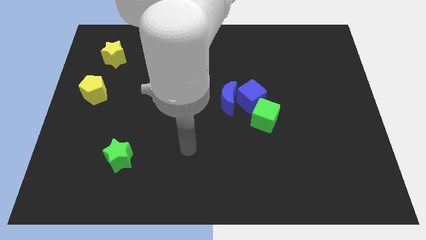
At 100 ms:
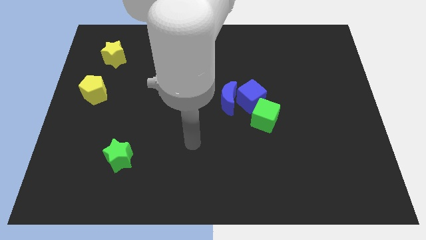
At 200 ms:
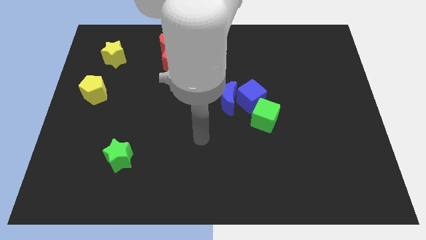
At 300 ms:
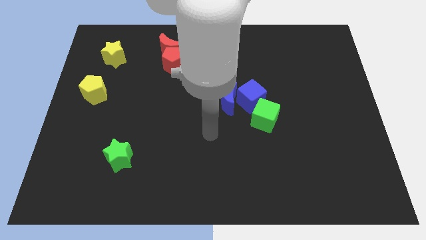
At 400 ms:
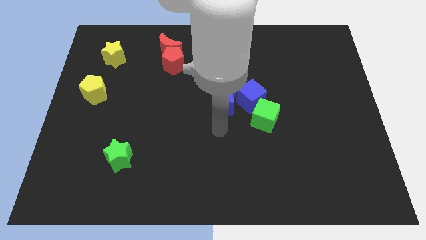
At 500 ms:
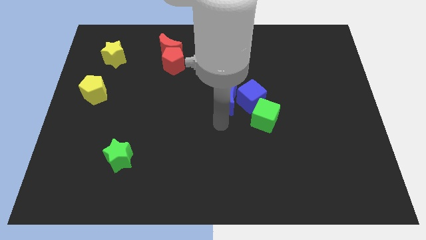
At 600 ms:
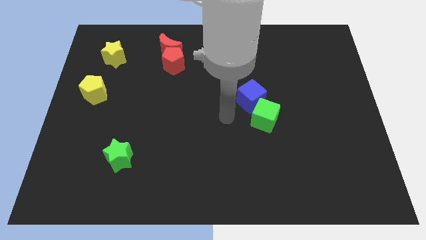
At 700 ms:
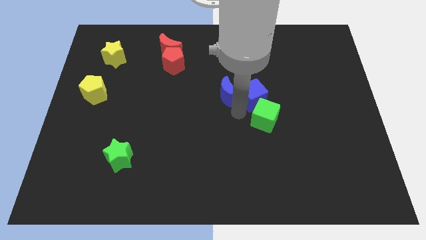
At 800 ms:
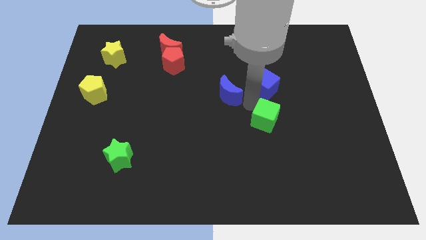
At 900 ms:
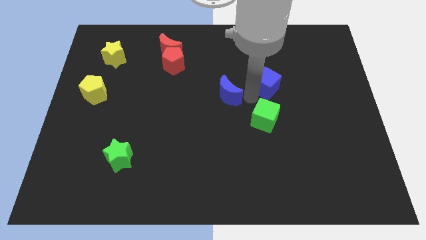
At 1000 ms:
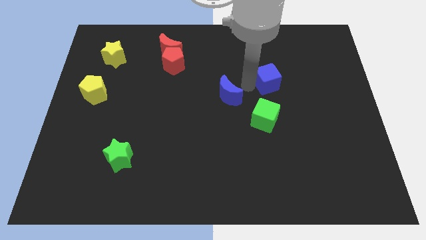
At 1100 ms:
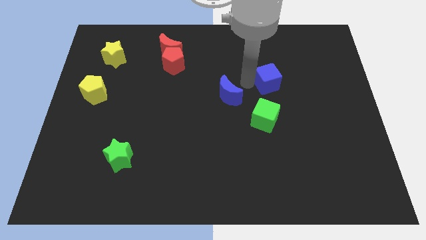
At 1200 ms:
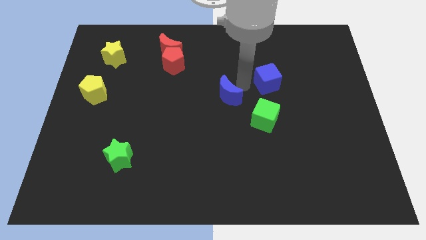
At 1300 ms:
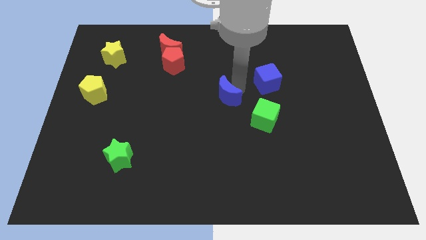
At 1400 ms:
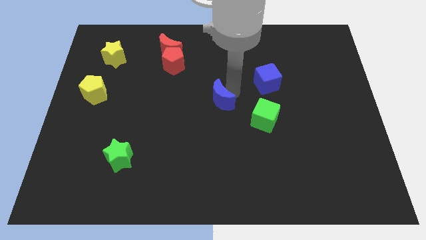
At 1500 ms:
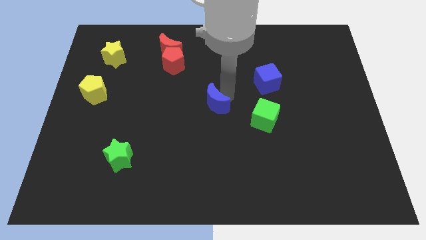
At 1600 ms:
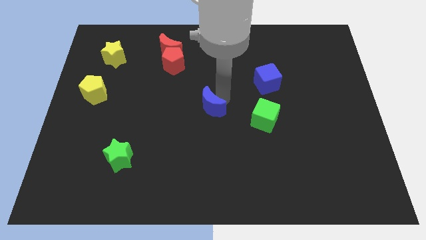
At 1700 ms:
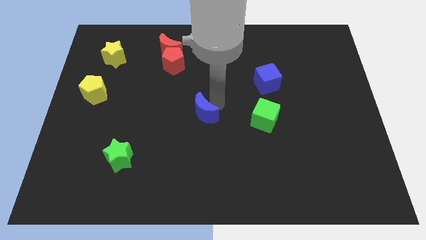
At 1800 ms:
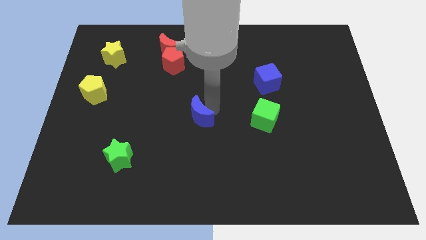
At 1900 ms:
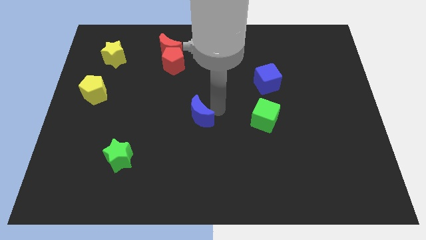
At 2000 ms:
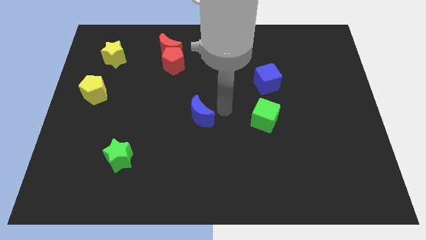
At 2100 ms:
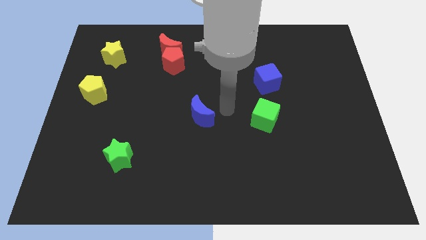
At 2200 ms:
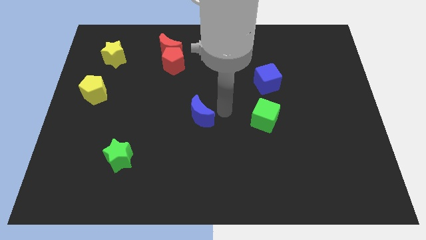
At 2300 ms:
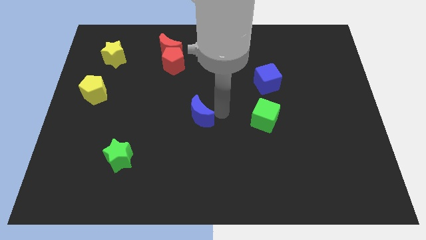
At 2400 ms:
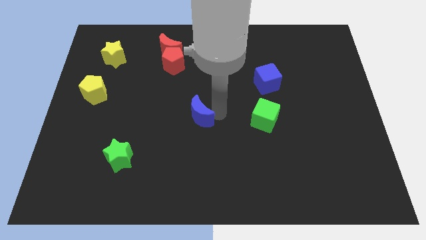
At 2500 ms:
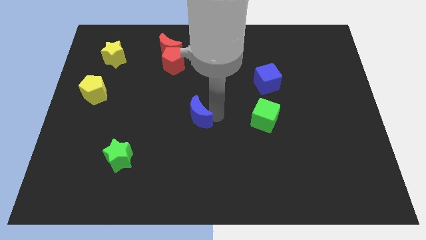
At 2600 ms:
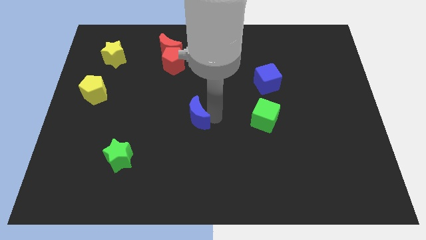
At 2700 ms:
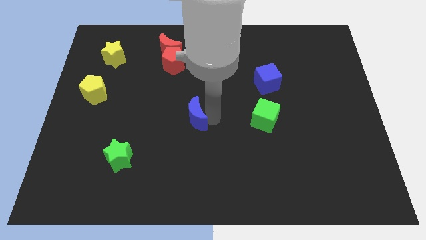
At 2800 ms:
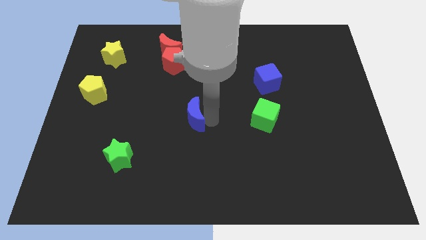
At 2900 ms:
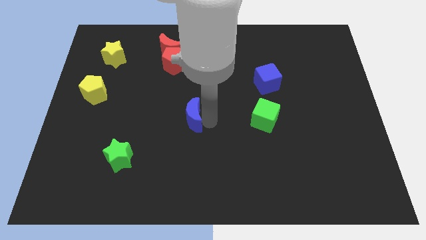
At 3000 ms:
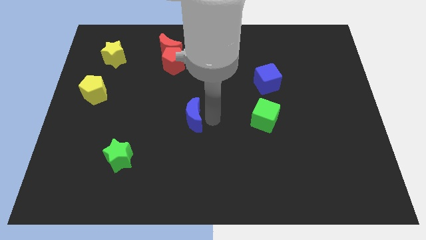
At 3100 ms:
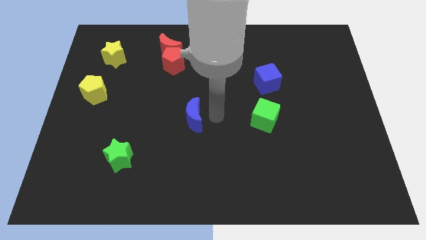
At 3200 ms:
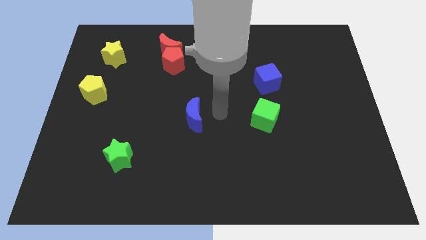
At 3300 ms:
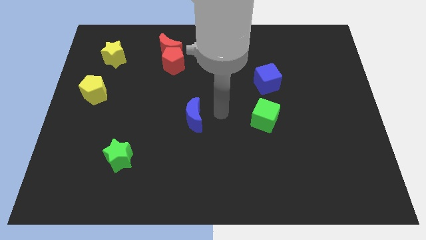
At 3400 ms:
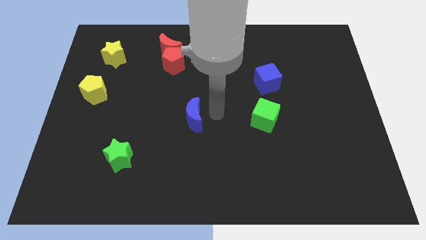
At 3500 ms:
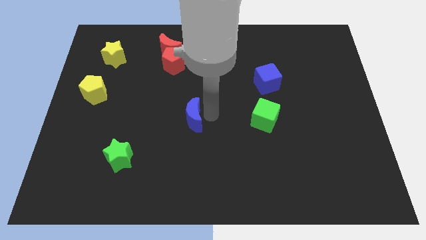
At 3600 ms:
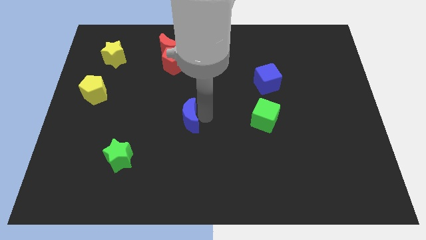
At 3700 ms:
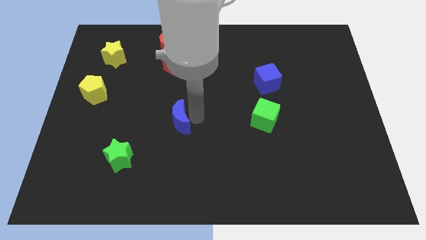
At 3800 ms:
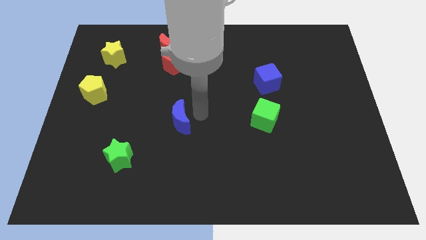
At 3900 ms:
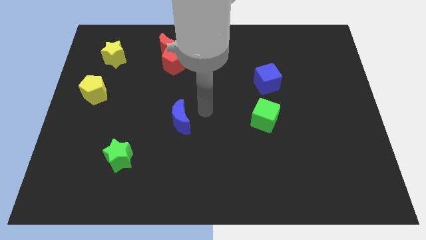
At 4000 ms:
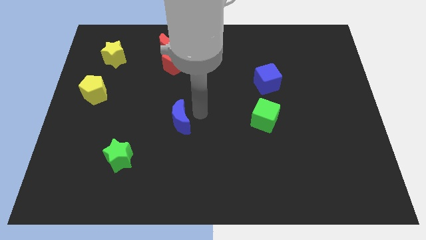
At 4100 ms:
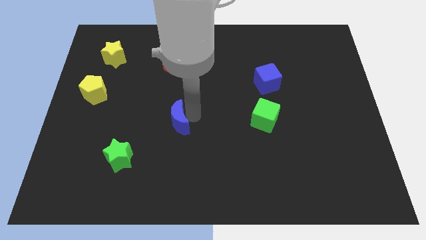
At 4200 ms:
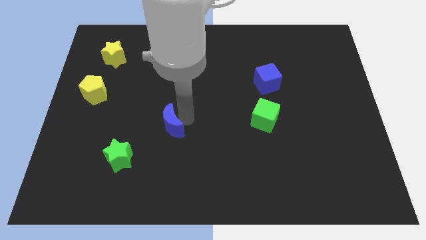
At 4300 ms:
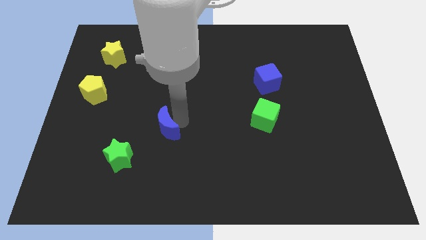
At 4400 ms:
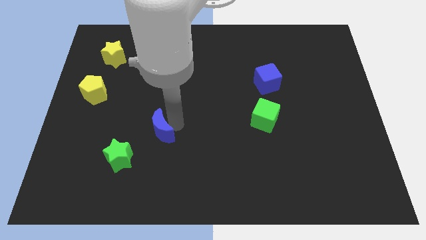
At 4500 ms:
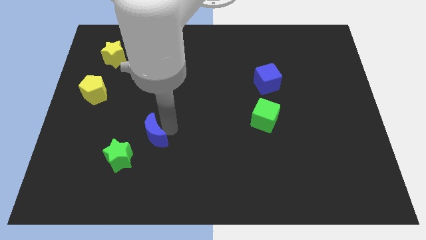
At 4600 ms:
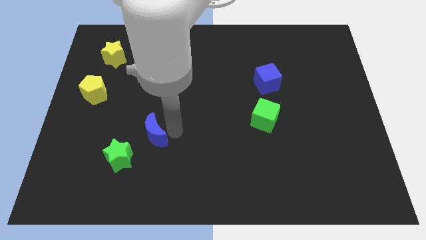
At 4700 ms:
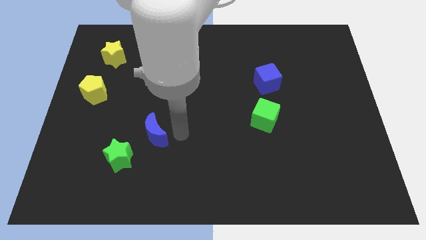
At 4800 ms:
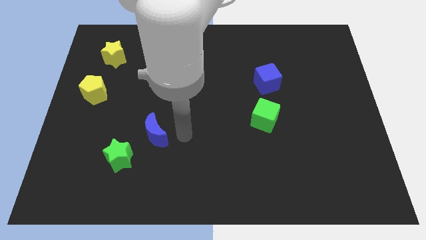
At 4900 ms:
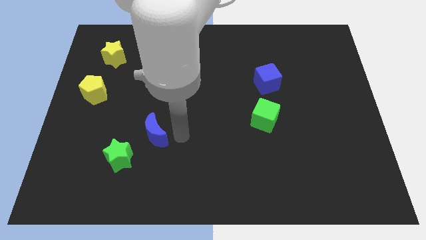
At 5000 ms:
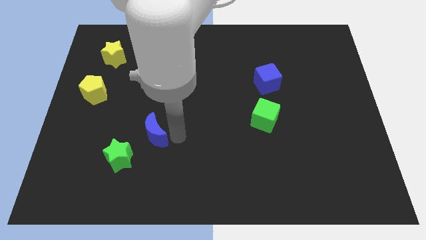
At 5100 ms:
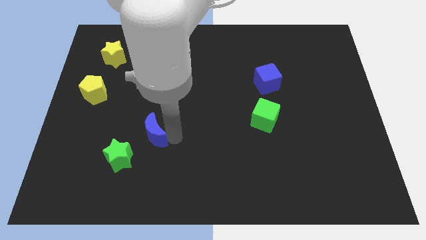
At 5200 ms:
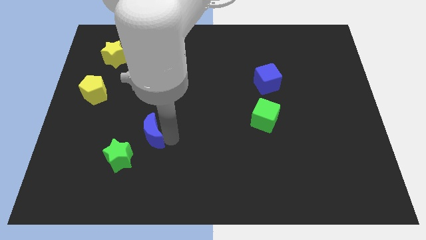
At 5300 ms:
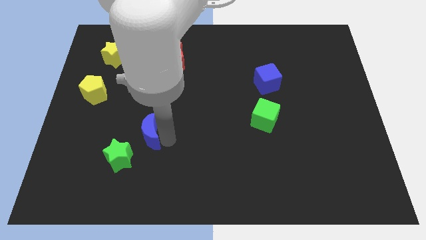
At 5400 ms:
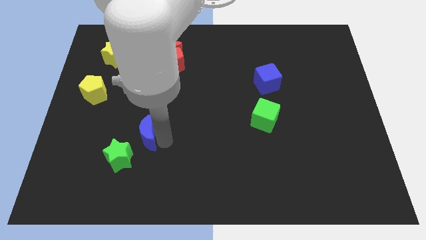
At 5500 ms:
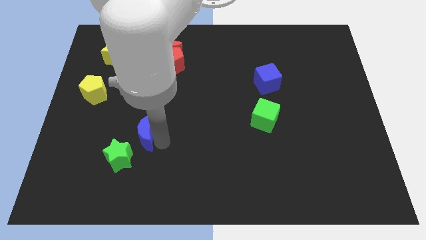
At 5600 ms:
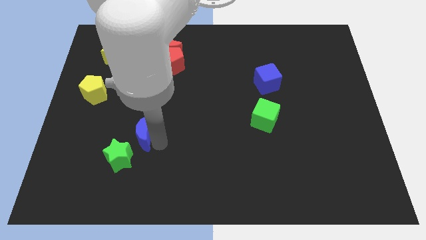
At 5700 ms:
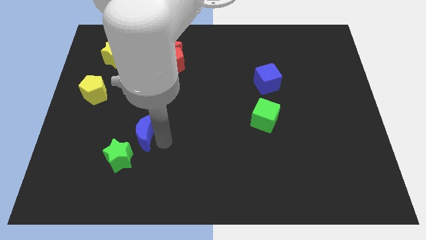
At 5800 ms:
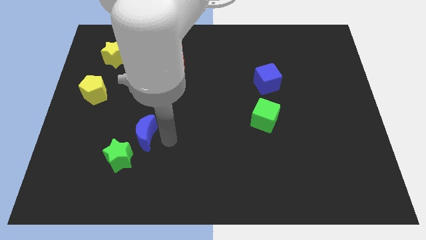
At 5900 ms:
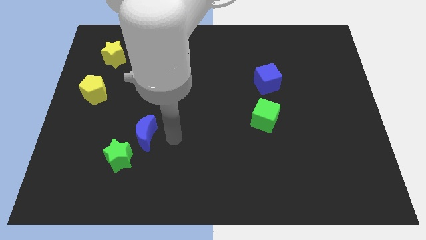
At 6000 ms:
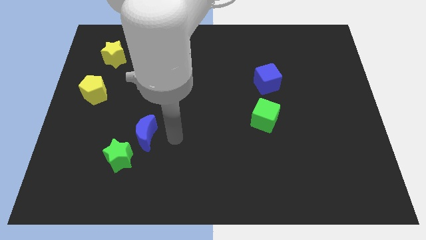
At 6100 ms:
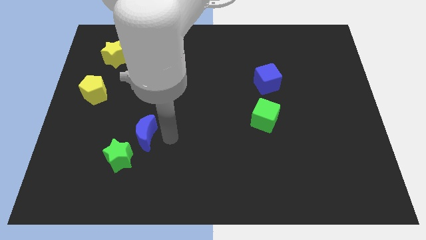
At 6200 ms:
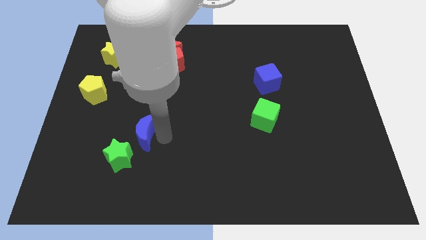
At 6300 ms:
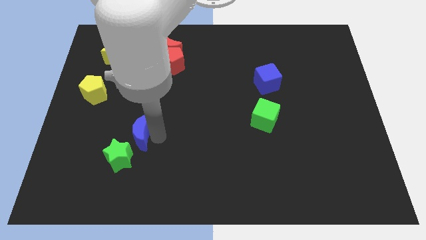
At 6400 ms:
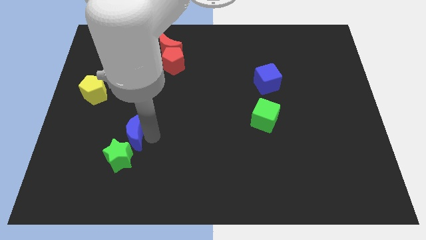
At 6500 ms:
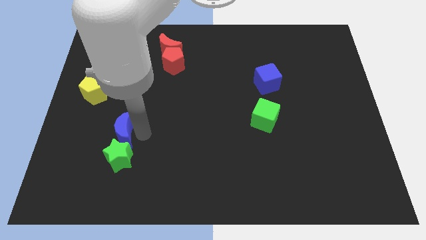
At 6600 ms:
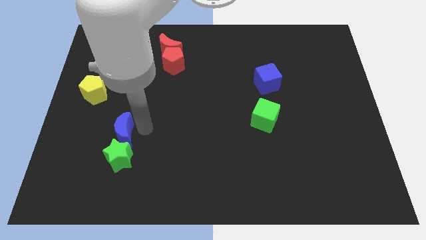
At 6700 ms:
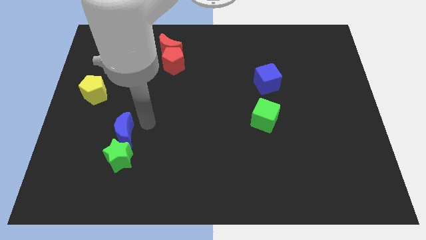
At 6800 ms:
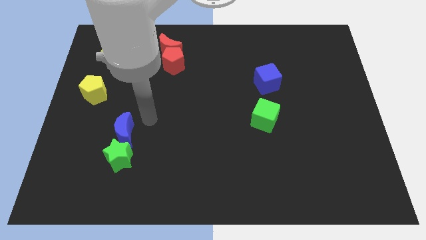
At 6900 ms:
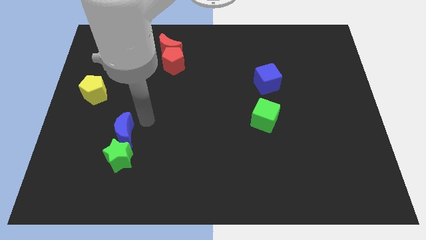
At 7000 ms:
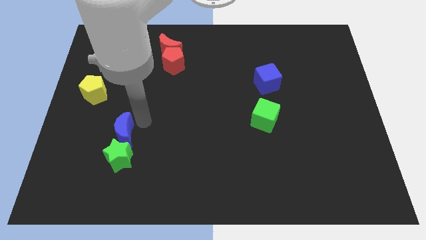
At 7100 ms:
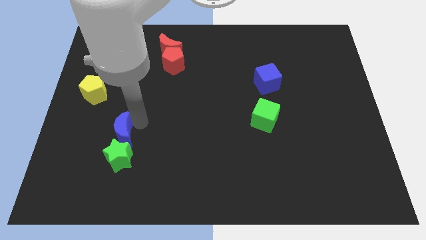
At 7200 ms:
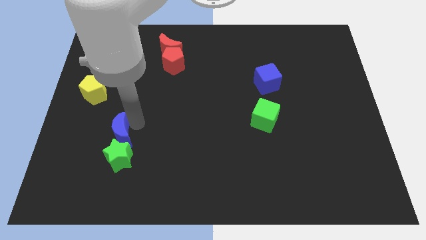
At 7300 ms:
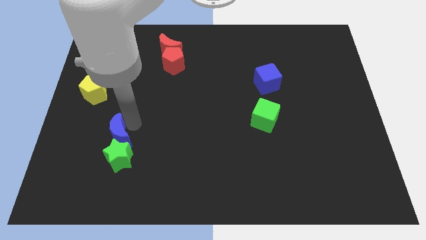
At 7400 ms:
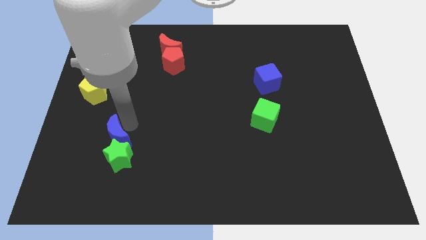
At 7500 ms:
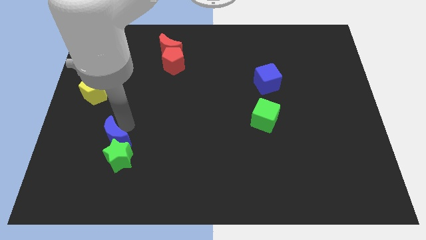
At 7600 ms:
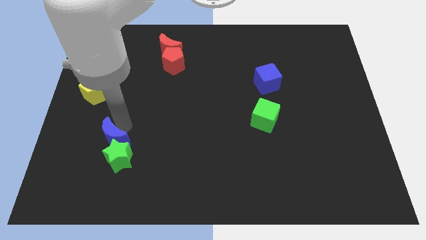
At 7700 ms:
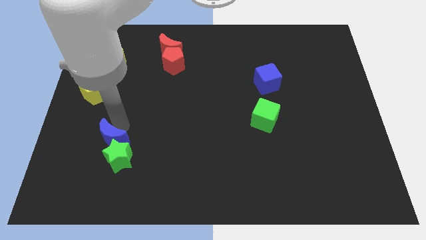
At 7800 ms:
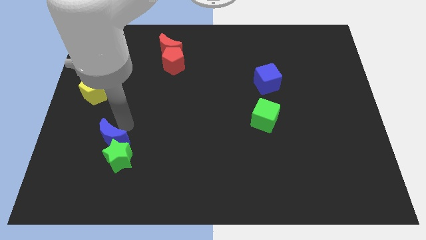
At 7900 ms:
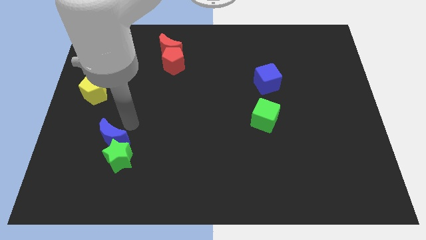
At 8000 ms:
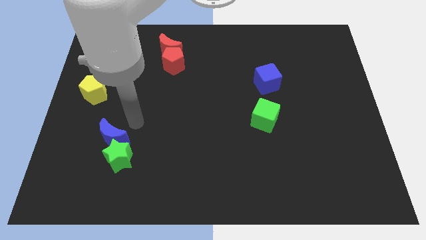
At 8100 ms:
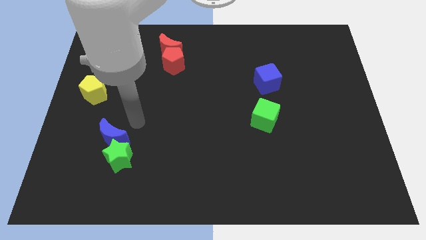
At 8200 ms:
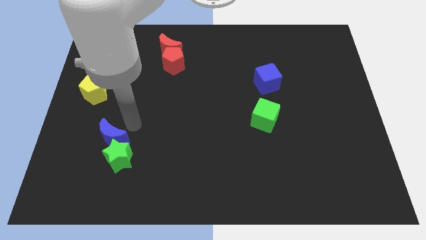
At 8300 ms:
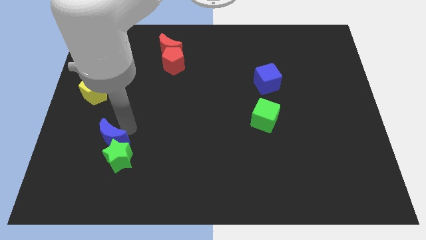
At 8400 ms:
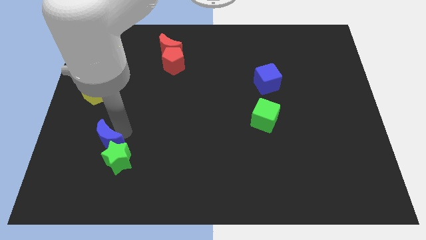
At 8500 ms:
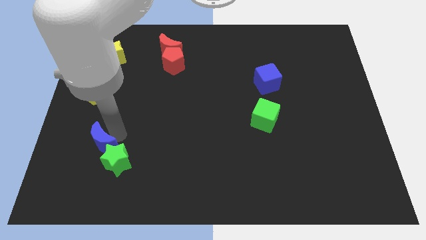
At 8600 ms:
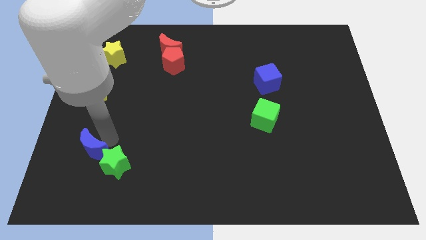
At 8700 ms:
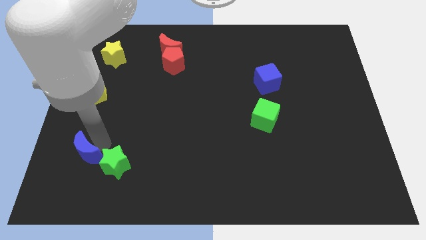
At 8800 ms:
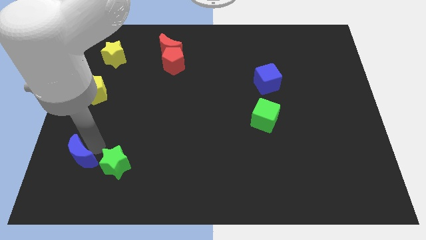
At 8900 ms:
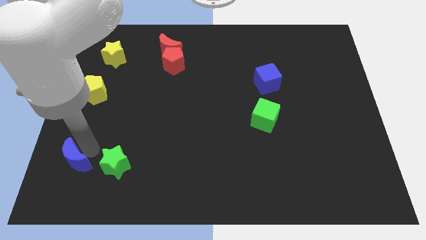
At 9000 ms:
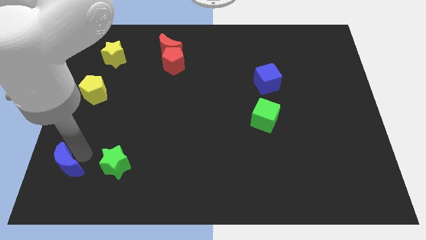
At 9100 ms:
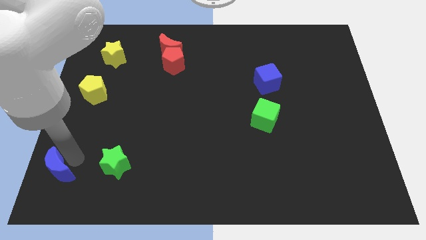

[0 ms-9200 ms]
move the blue moon to the bottom left of the board
